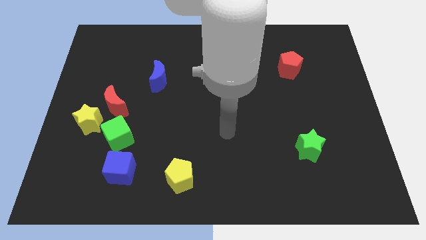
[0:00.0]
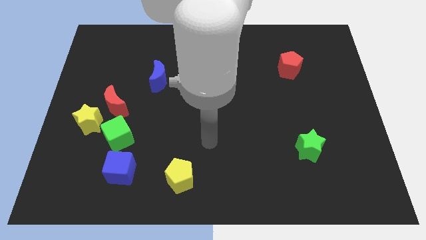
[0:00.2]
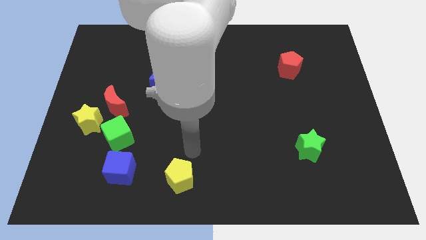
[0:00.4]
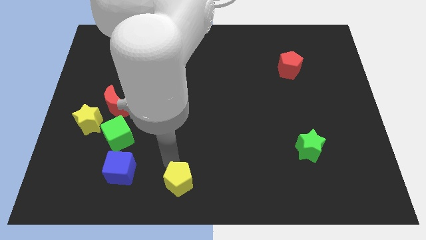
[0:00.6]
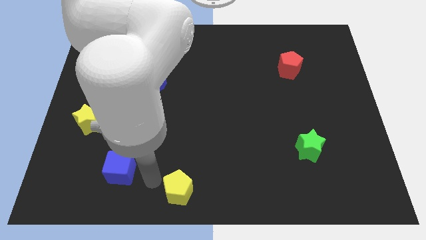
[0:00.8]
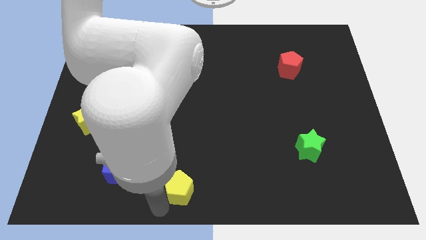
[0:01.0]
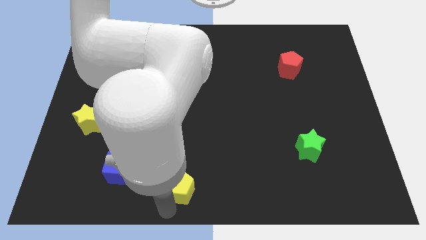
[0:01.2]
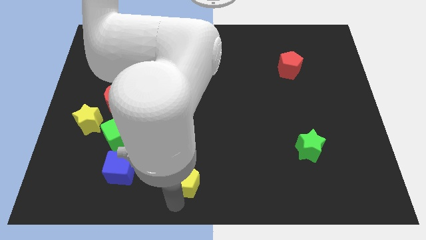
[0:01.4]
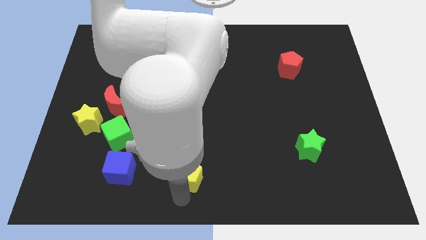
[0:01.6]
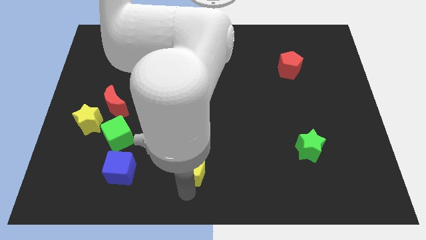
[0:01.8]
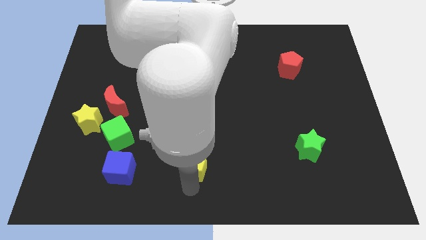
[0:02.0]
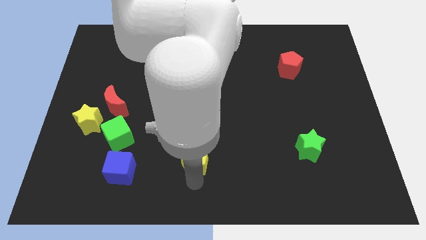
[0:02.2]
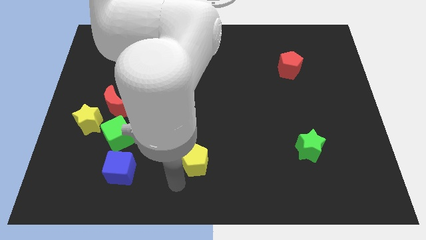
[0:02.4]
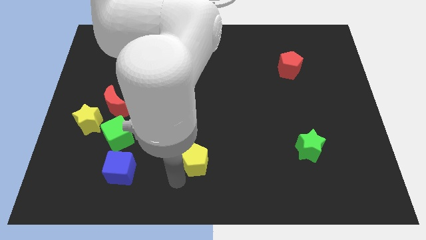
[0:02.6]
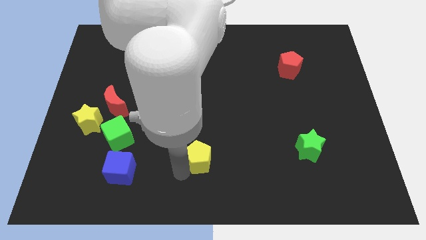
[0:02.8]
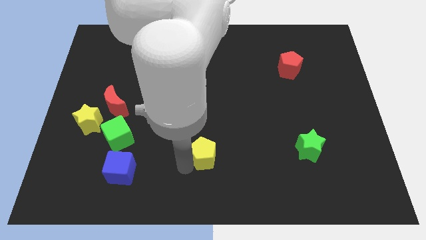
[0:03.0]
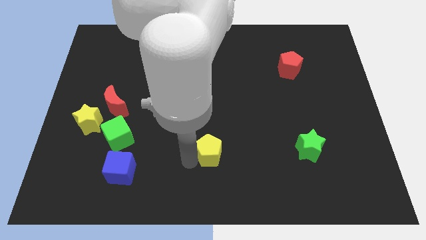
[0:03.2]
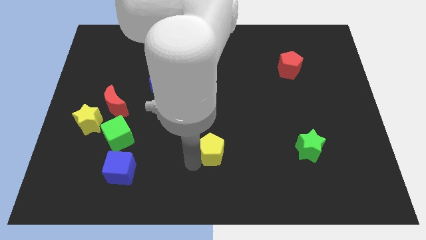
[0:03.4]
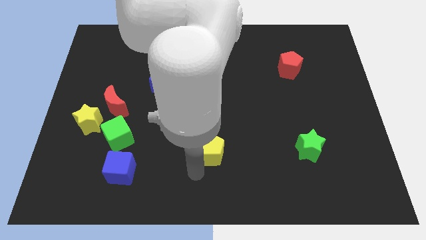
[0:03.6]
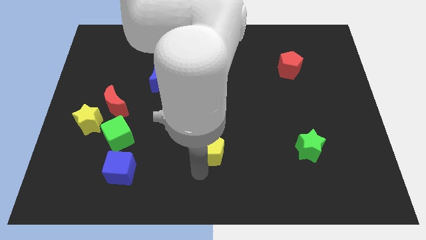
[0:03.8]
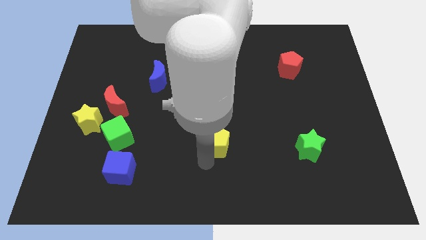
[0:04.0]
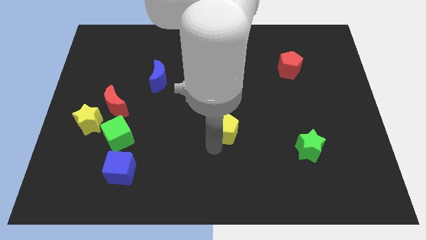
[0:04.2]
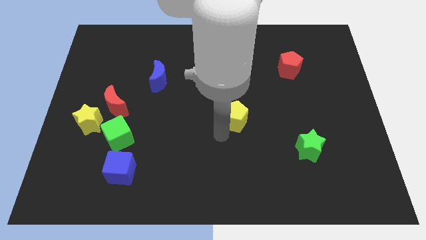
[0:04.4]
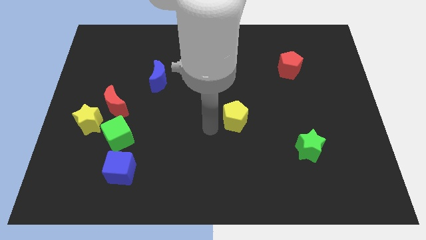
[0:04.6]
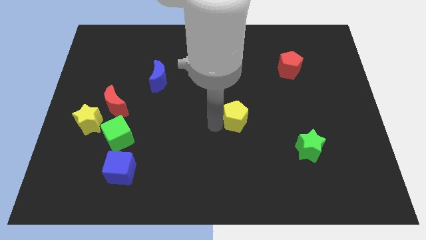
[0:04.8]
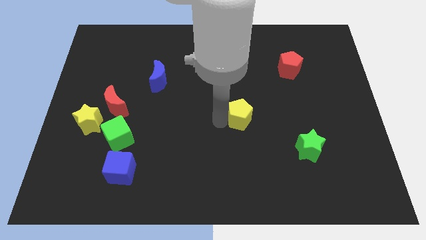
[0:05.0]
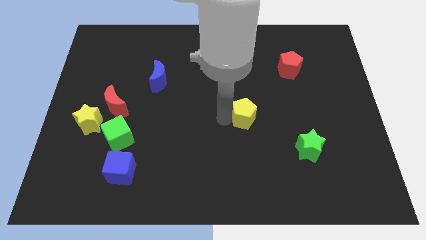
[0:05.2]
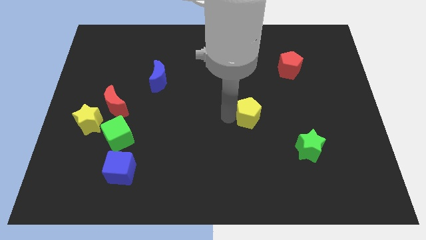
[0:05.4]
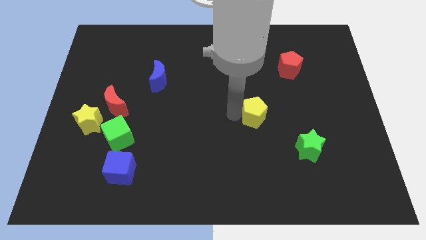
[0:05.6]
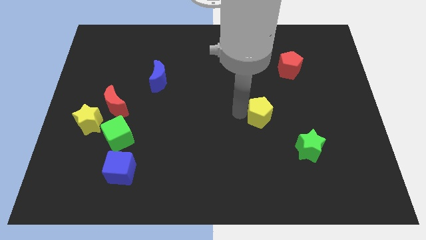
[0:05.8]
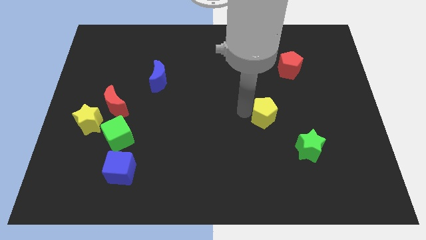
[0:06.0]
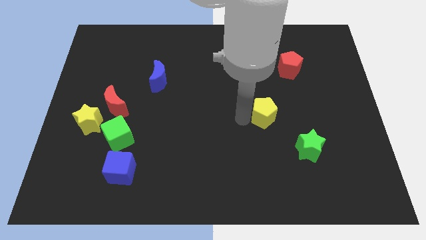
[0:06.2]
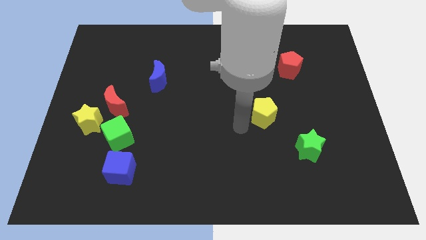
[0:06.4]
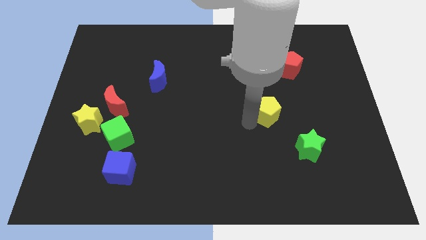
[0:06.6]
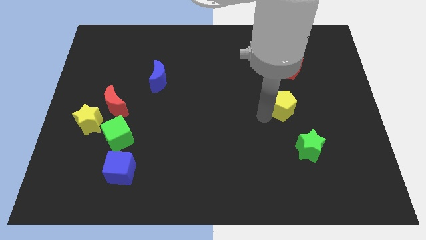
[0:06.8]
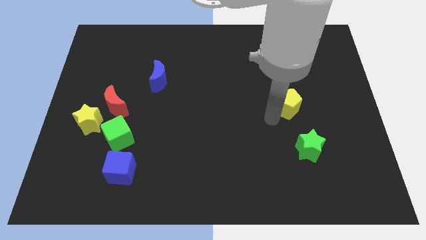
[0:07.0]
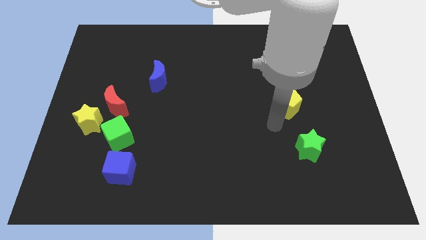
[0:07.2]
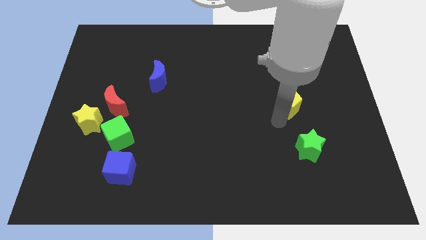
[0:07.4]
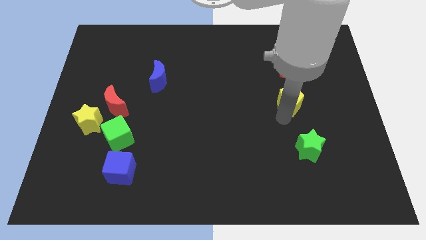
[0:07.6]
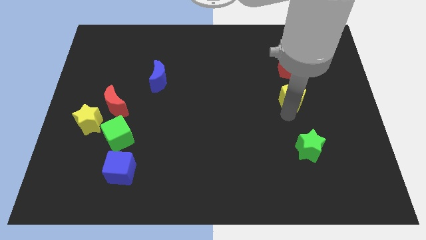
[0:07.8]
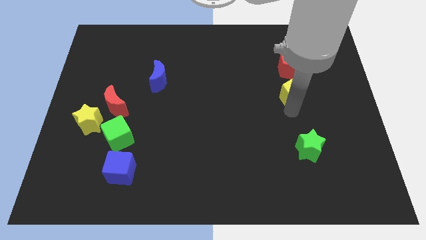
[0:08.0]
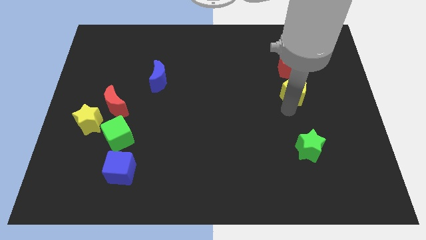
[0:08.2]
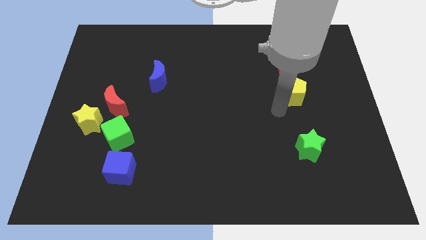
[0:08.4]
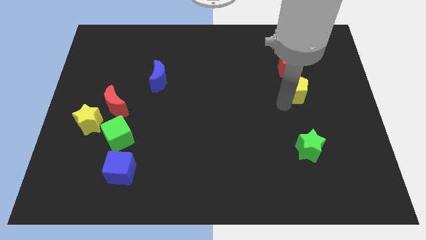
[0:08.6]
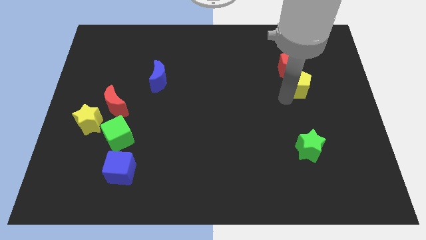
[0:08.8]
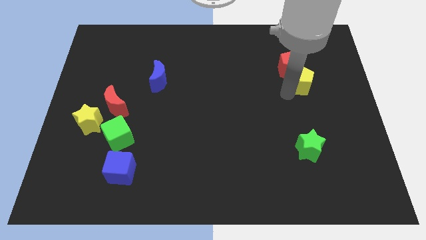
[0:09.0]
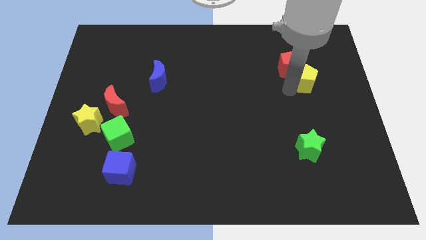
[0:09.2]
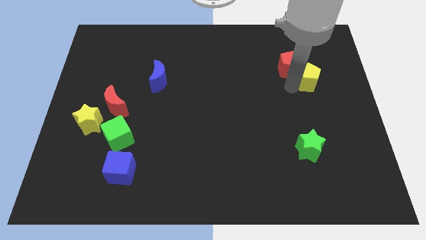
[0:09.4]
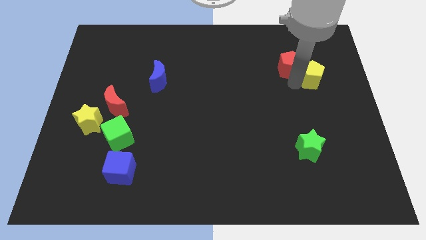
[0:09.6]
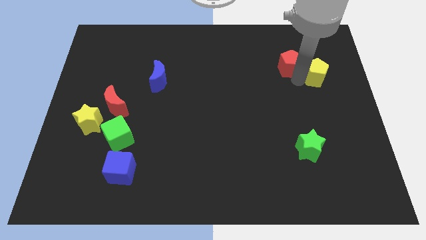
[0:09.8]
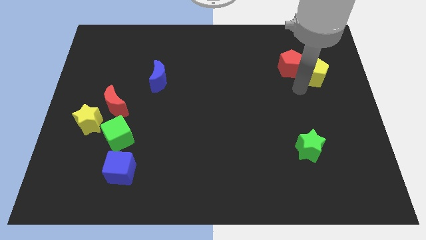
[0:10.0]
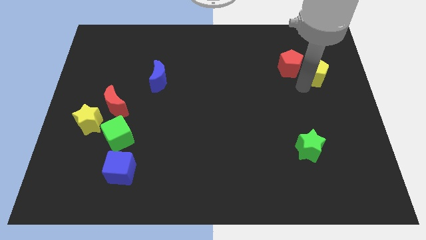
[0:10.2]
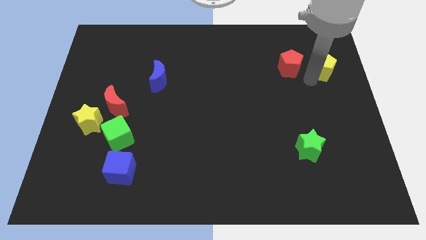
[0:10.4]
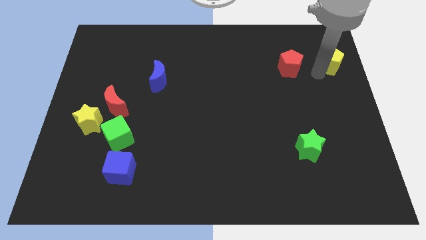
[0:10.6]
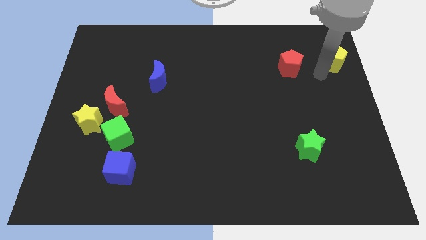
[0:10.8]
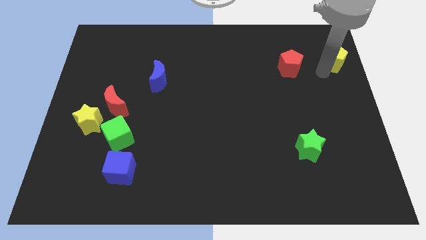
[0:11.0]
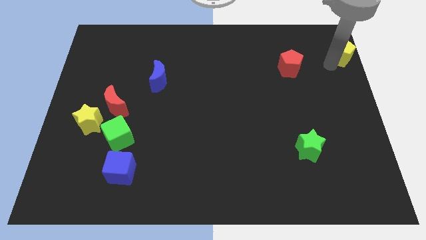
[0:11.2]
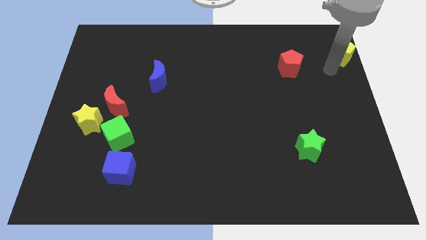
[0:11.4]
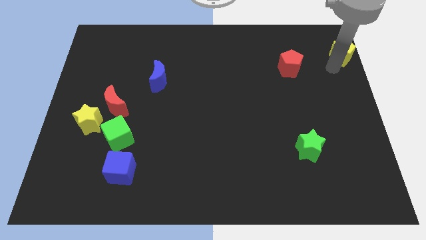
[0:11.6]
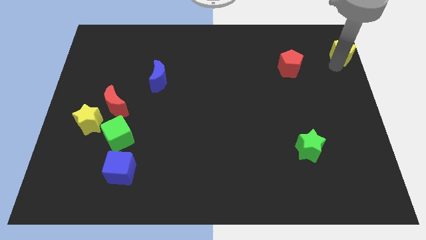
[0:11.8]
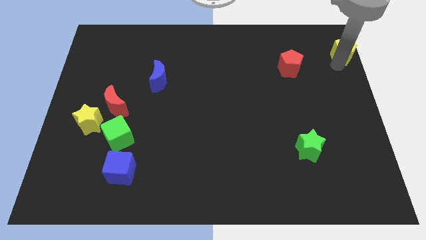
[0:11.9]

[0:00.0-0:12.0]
slide the yellow pentagon to the upper right corner
